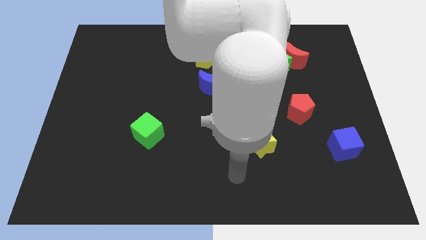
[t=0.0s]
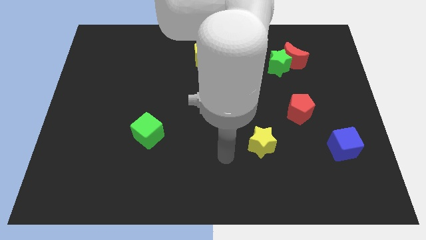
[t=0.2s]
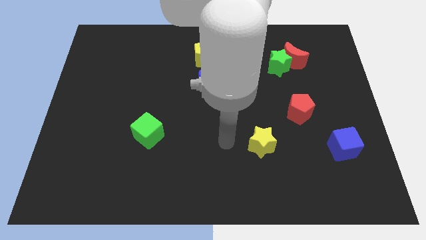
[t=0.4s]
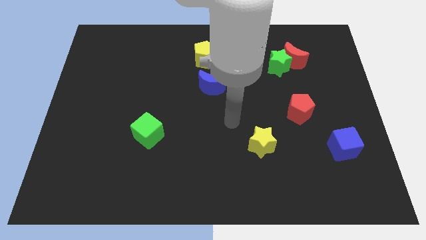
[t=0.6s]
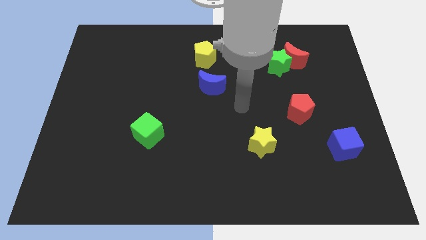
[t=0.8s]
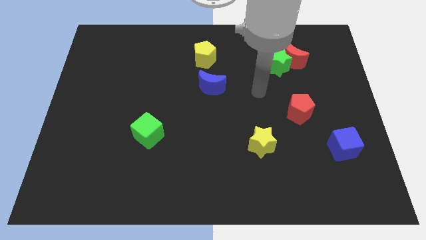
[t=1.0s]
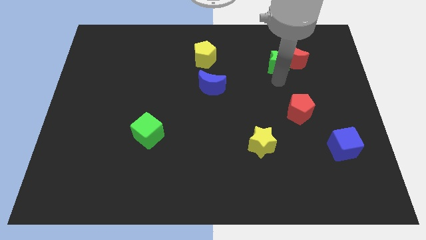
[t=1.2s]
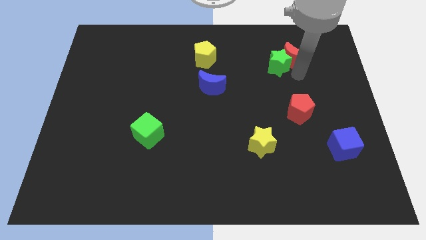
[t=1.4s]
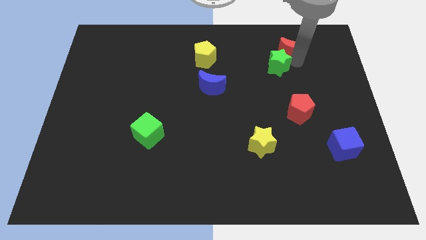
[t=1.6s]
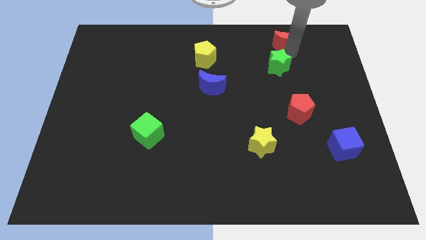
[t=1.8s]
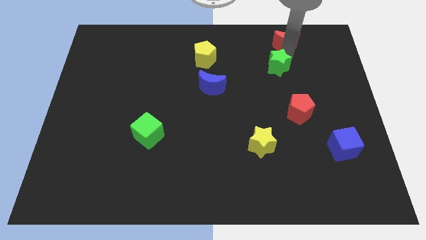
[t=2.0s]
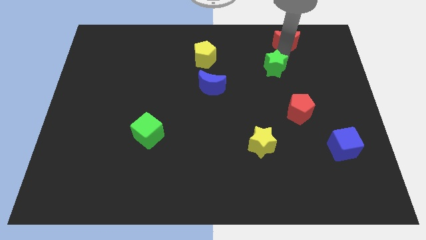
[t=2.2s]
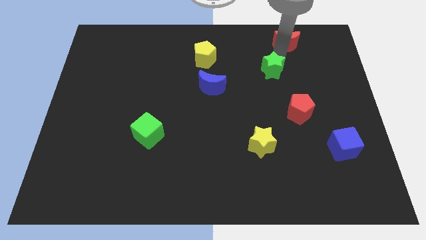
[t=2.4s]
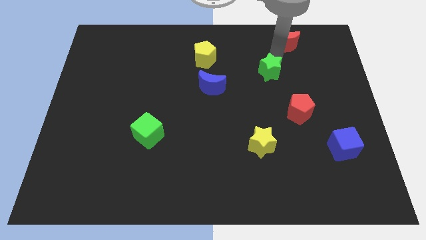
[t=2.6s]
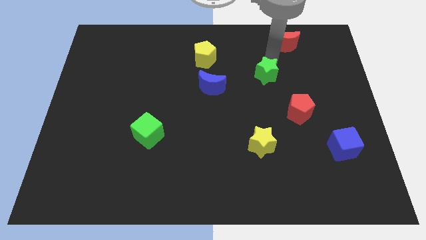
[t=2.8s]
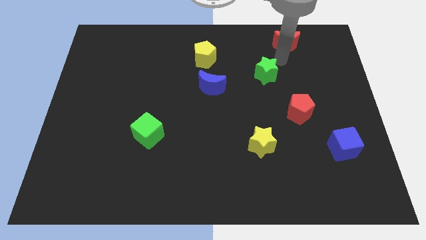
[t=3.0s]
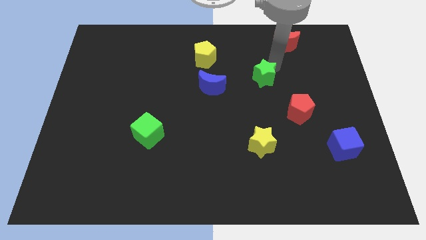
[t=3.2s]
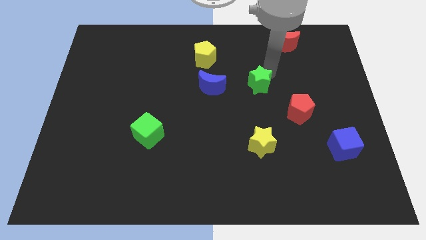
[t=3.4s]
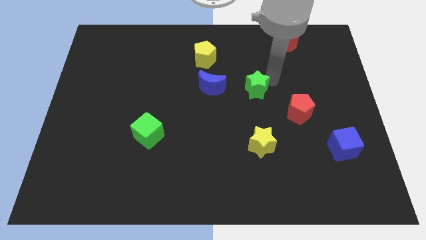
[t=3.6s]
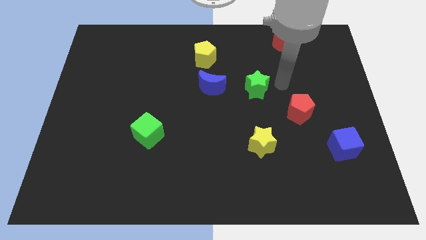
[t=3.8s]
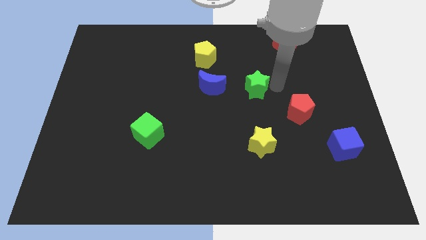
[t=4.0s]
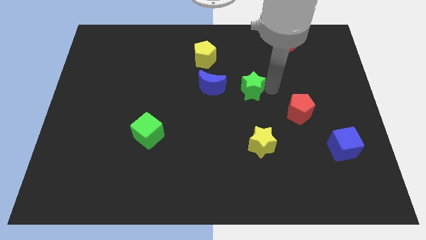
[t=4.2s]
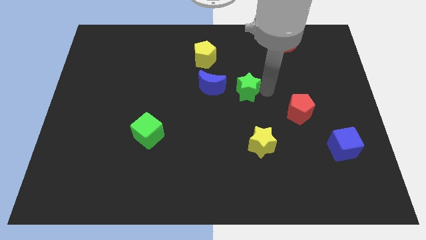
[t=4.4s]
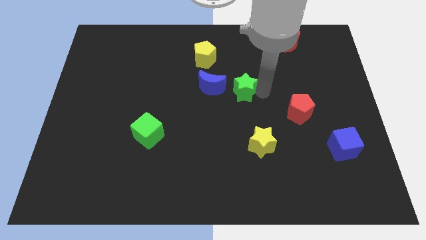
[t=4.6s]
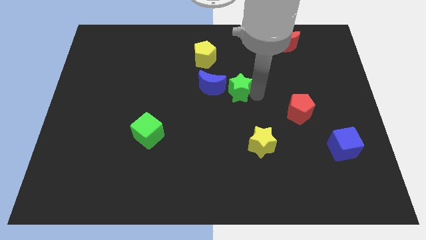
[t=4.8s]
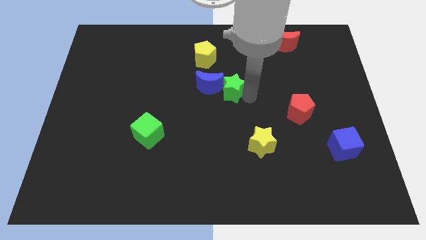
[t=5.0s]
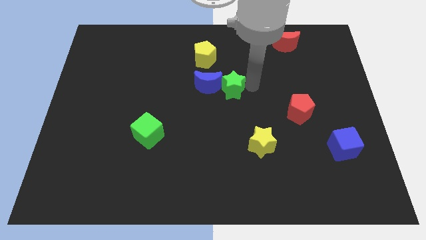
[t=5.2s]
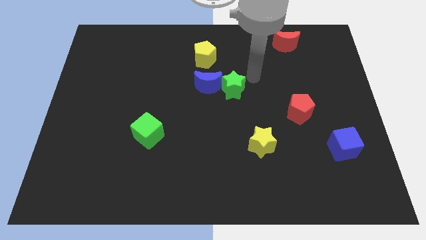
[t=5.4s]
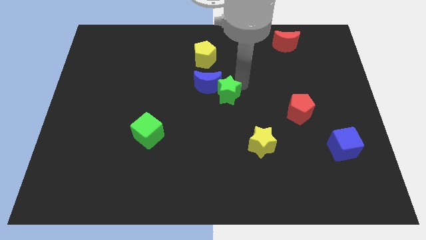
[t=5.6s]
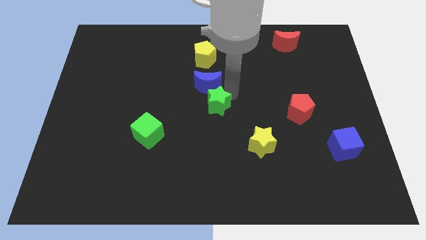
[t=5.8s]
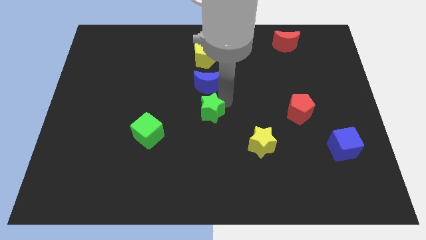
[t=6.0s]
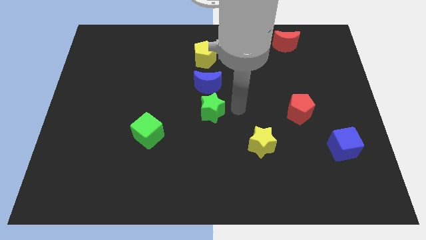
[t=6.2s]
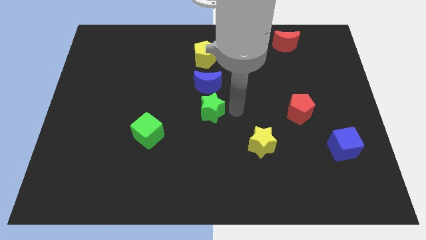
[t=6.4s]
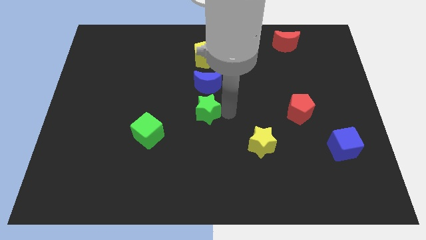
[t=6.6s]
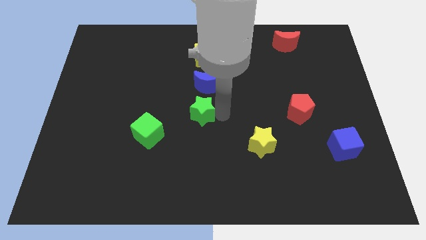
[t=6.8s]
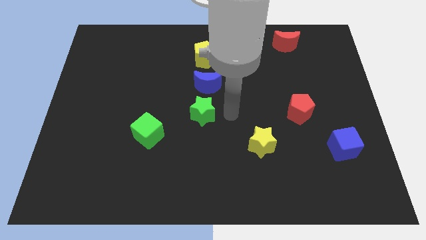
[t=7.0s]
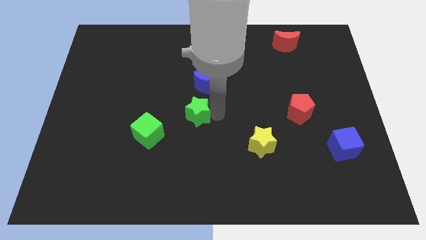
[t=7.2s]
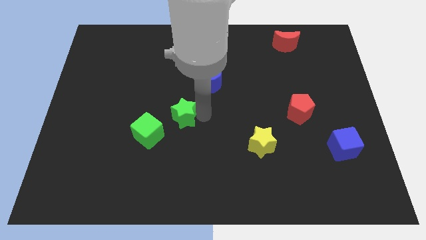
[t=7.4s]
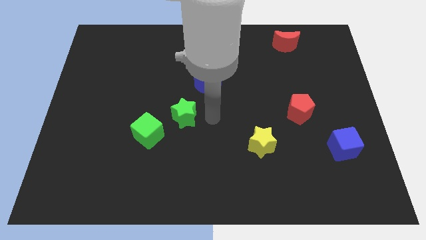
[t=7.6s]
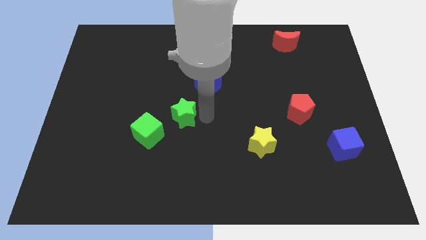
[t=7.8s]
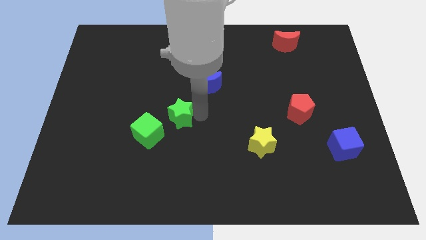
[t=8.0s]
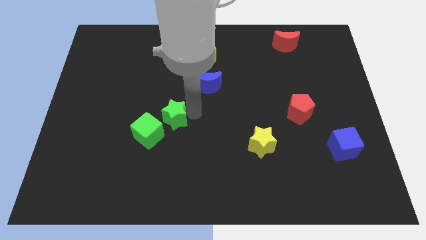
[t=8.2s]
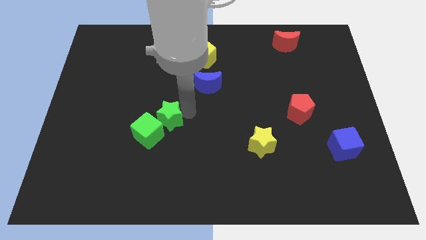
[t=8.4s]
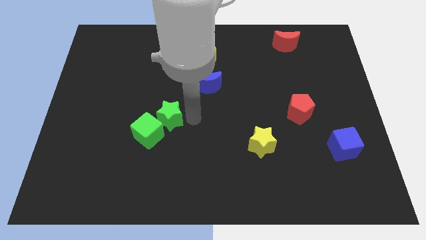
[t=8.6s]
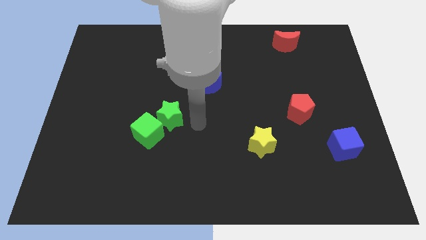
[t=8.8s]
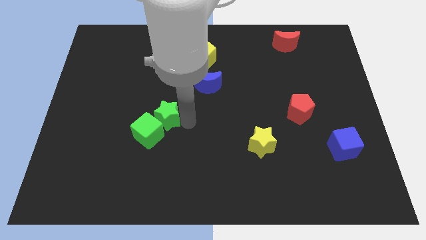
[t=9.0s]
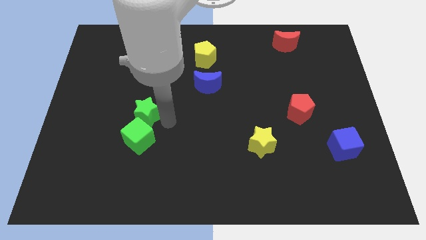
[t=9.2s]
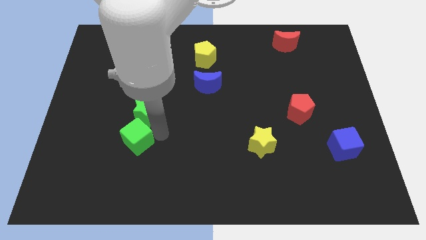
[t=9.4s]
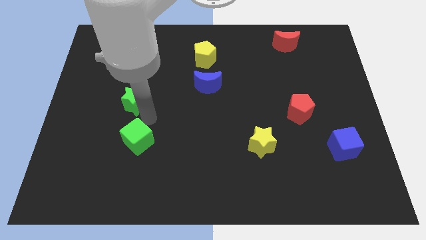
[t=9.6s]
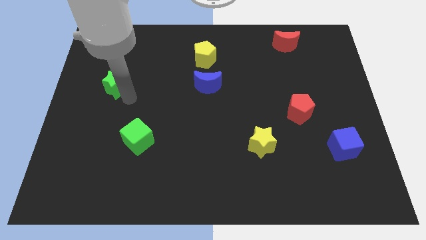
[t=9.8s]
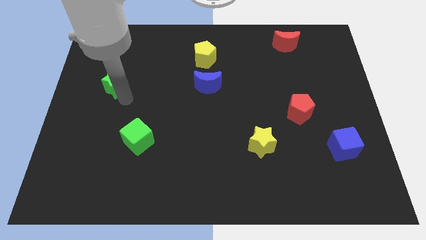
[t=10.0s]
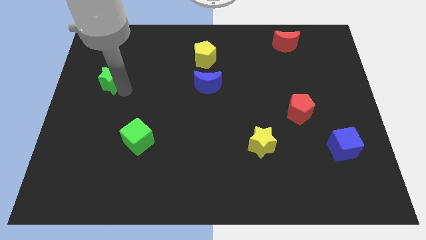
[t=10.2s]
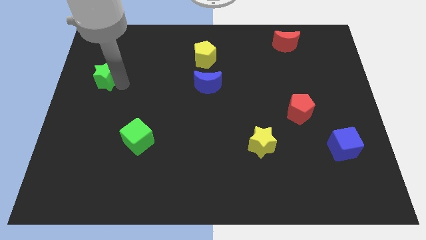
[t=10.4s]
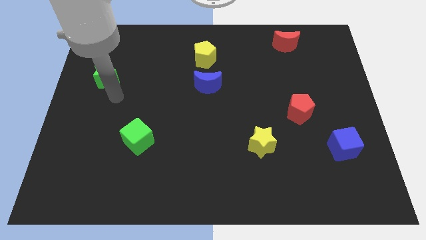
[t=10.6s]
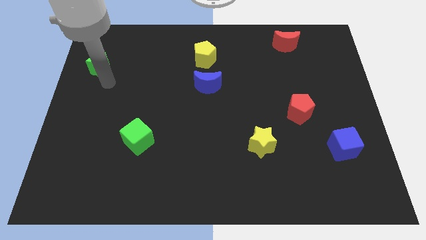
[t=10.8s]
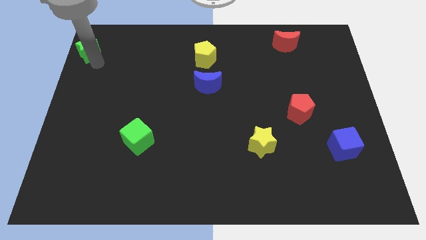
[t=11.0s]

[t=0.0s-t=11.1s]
move the green star to the upper left corner

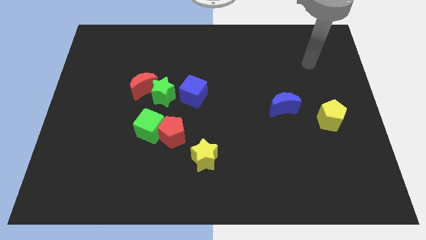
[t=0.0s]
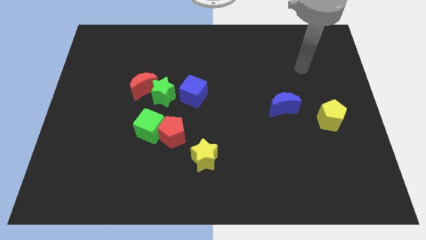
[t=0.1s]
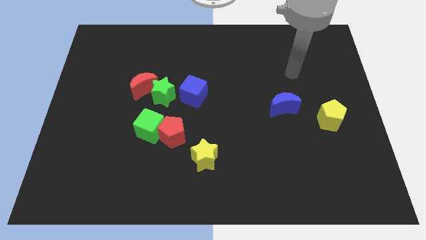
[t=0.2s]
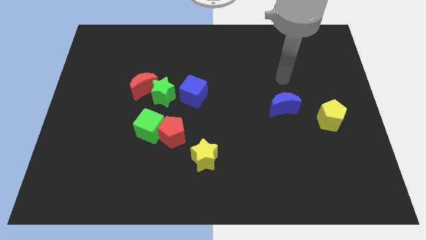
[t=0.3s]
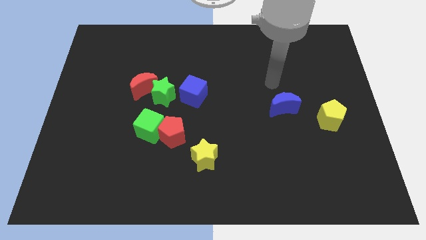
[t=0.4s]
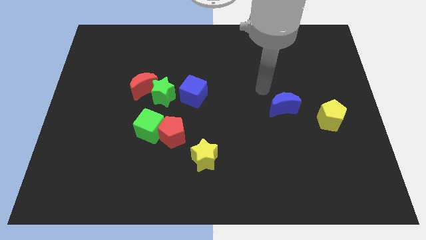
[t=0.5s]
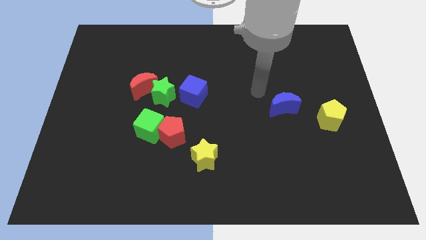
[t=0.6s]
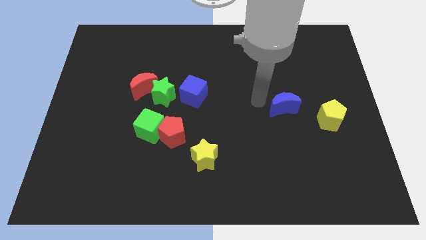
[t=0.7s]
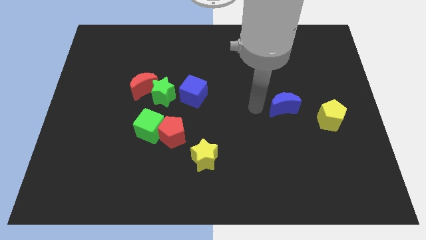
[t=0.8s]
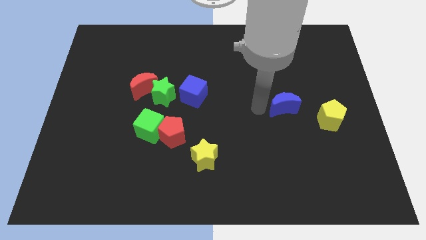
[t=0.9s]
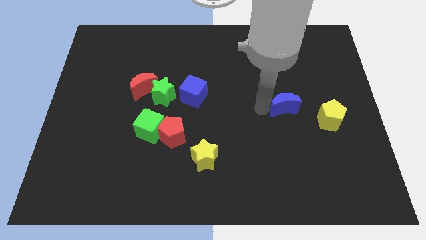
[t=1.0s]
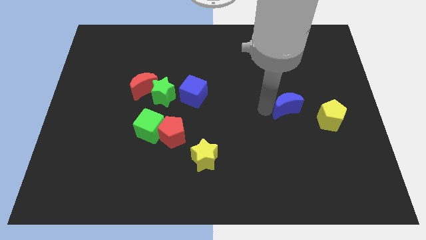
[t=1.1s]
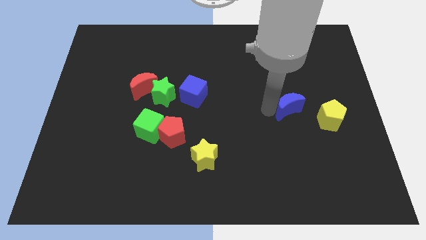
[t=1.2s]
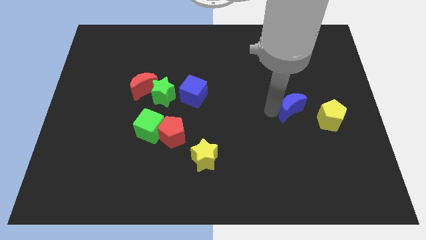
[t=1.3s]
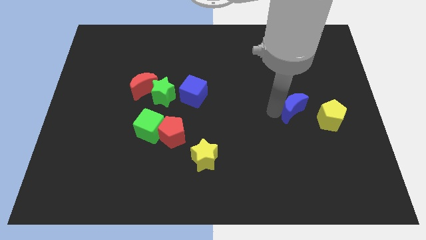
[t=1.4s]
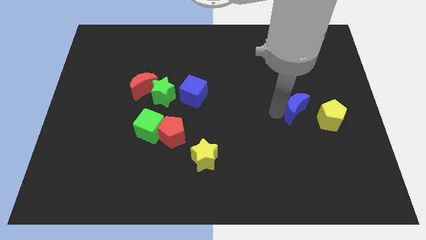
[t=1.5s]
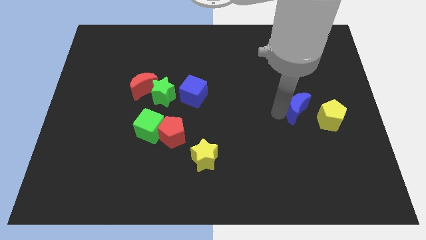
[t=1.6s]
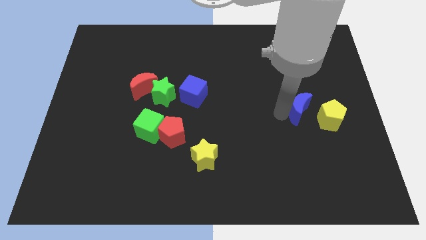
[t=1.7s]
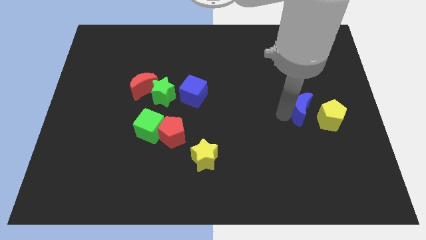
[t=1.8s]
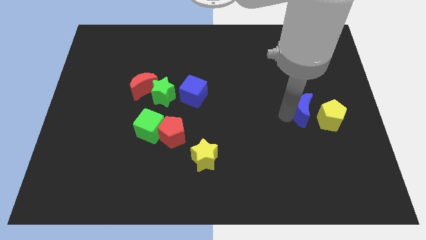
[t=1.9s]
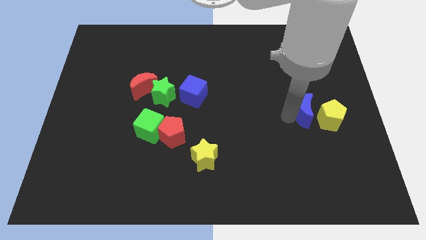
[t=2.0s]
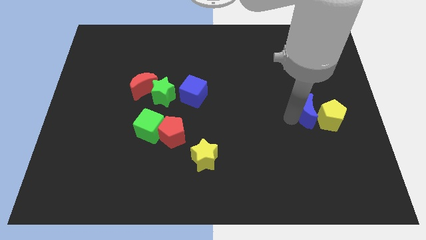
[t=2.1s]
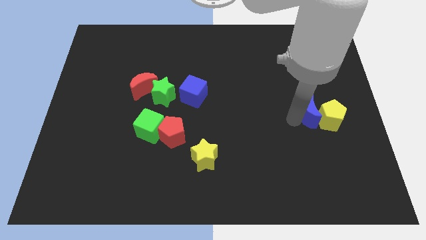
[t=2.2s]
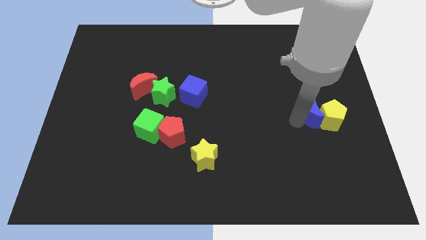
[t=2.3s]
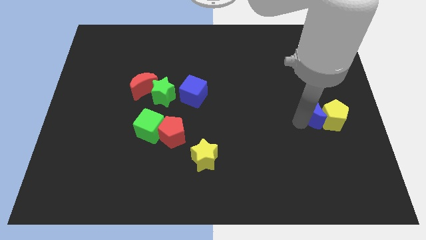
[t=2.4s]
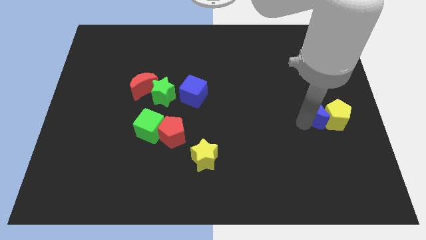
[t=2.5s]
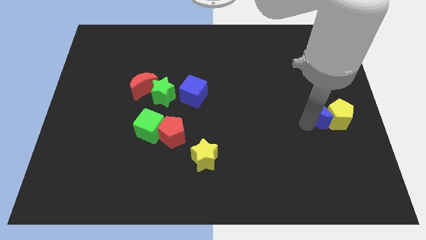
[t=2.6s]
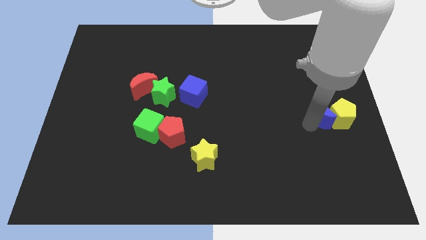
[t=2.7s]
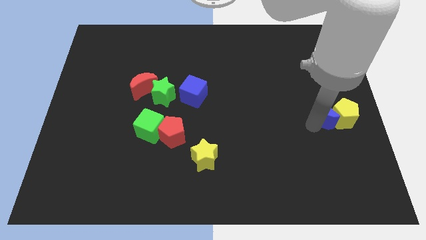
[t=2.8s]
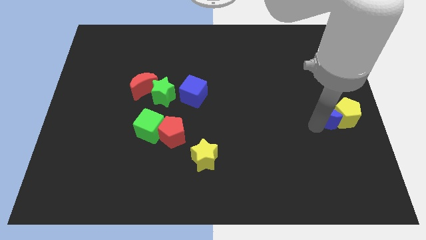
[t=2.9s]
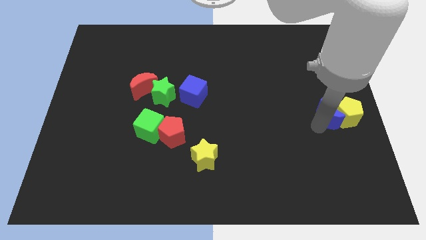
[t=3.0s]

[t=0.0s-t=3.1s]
push the blue moon to the center right

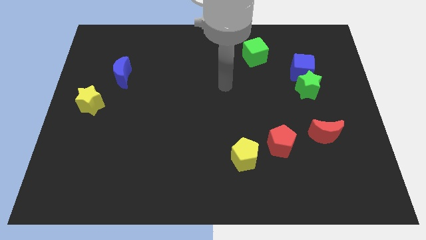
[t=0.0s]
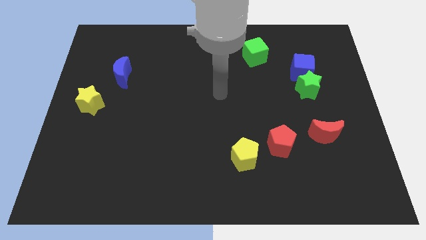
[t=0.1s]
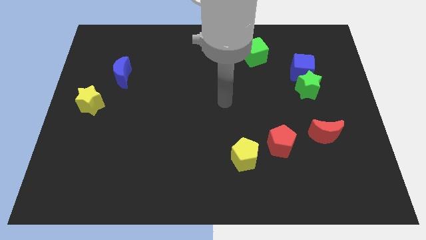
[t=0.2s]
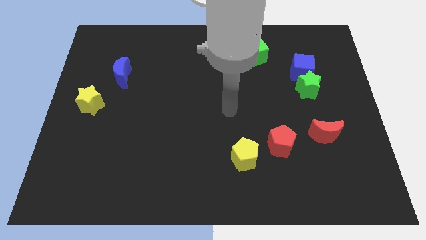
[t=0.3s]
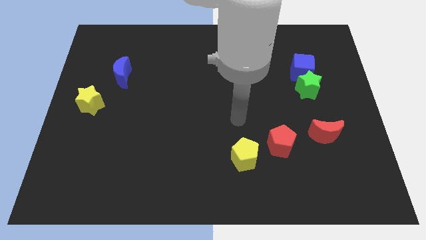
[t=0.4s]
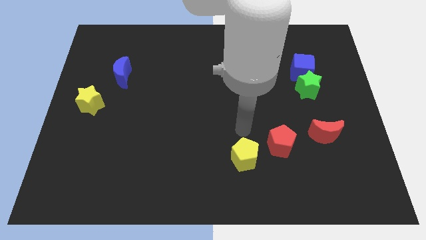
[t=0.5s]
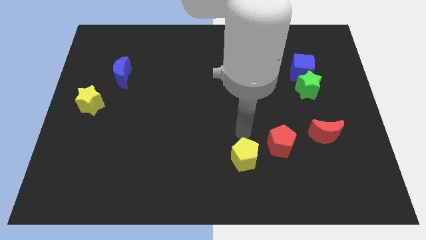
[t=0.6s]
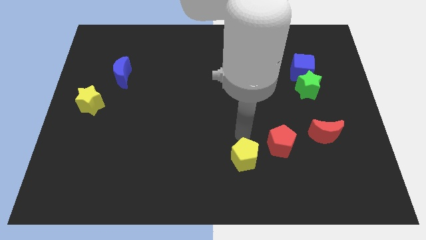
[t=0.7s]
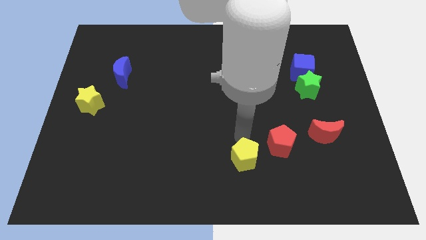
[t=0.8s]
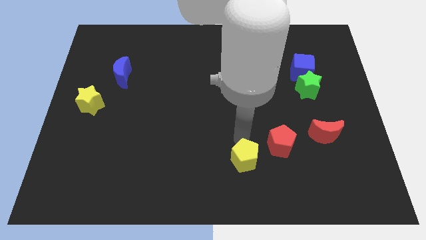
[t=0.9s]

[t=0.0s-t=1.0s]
push the yellow pentagon to the bottom
